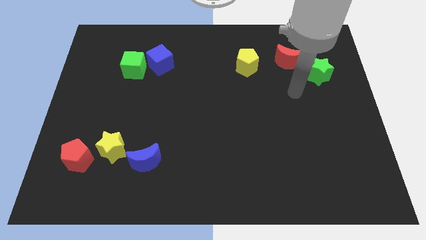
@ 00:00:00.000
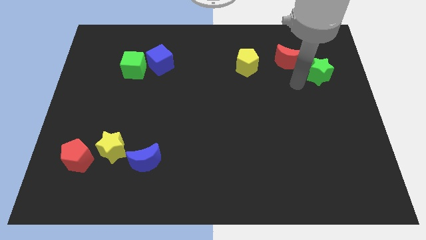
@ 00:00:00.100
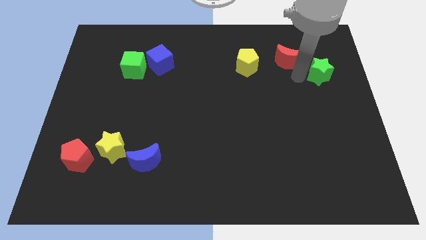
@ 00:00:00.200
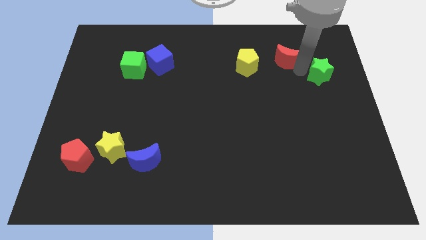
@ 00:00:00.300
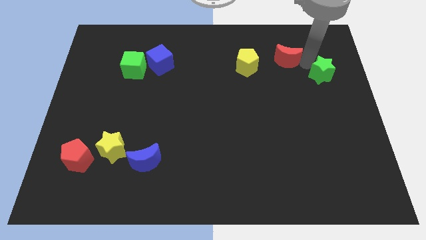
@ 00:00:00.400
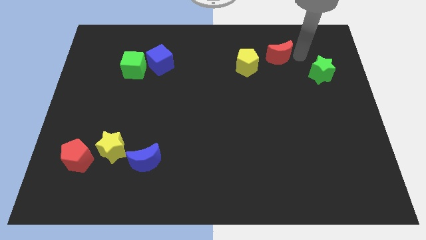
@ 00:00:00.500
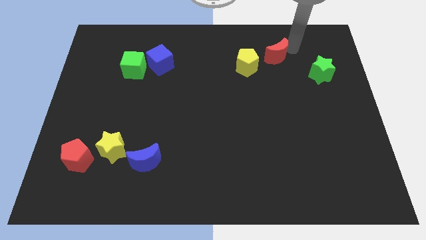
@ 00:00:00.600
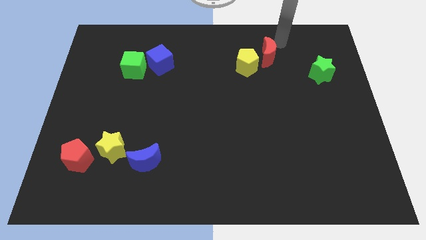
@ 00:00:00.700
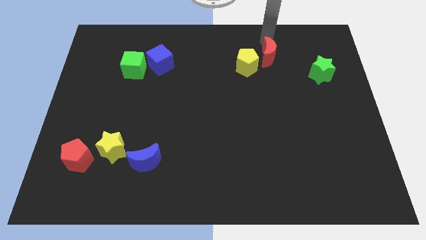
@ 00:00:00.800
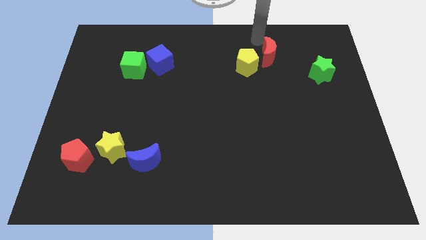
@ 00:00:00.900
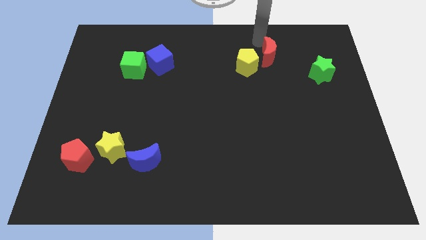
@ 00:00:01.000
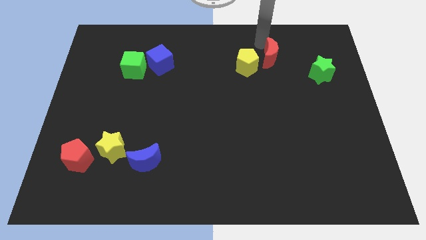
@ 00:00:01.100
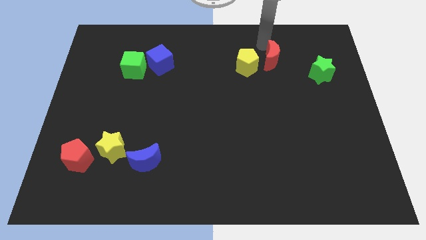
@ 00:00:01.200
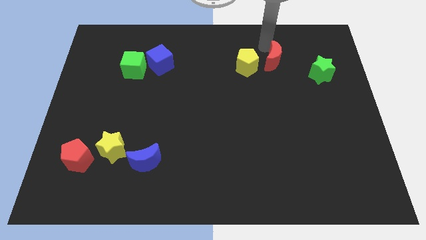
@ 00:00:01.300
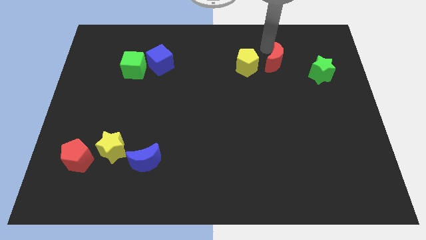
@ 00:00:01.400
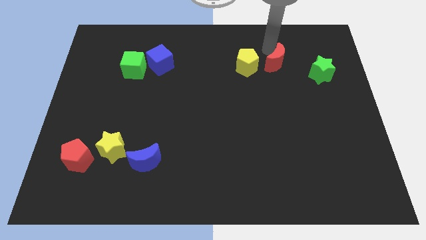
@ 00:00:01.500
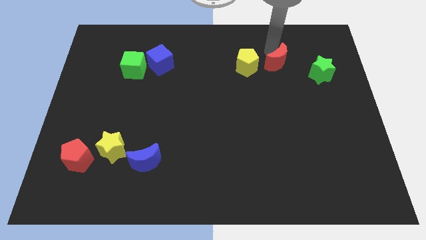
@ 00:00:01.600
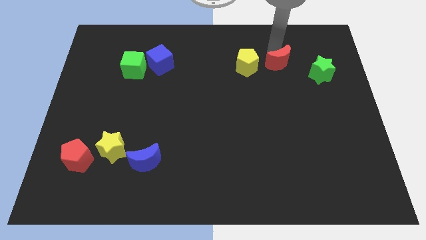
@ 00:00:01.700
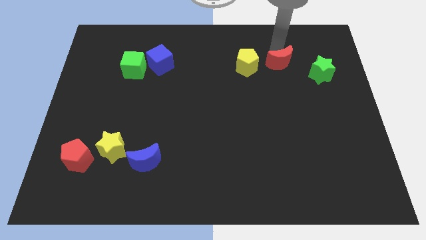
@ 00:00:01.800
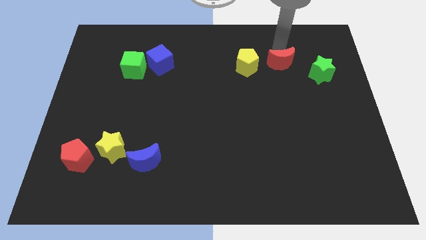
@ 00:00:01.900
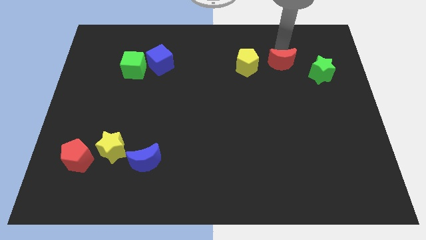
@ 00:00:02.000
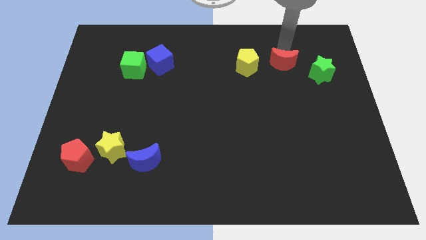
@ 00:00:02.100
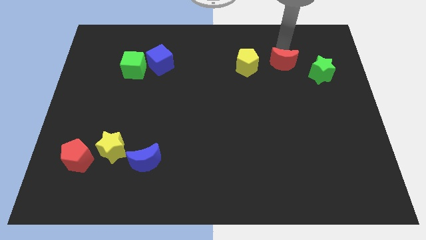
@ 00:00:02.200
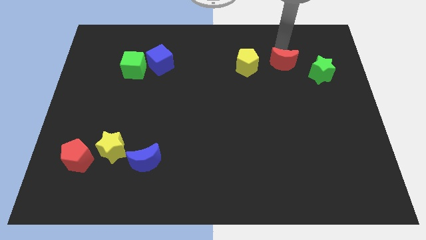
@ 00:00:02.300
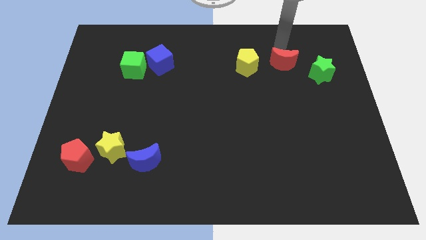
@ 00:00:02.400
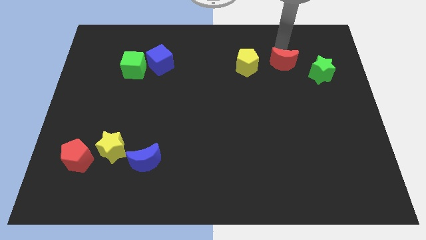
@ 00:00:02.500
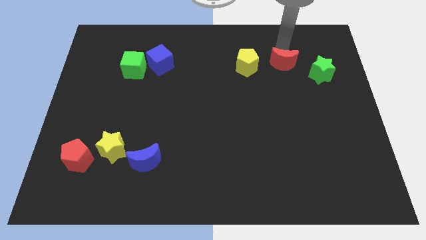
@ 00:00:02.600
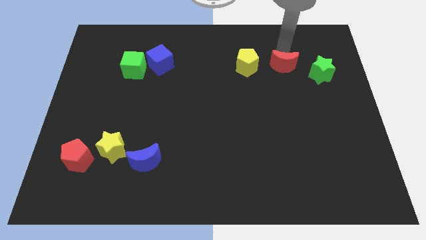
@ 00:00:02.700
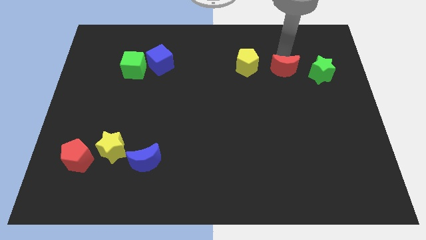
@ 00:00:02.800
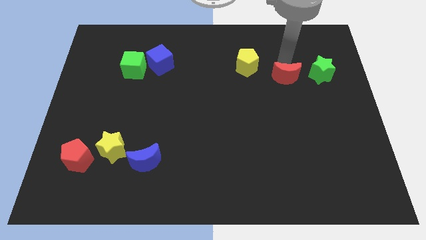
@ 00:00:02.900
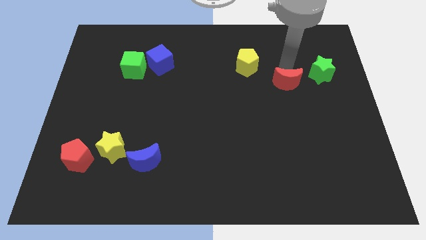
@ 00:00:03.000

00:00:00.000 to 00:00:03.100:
slightly slide the red moon down

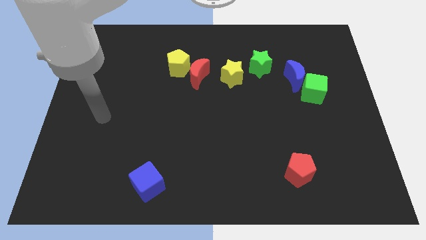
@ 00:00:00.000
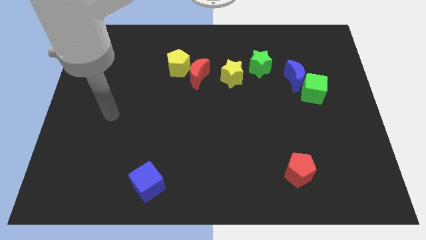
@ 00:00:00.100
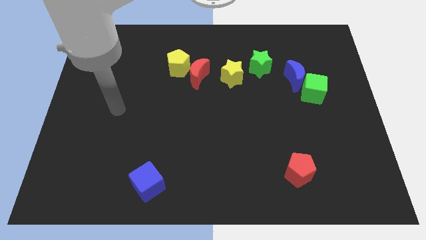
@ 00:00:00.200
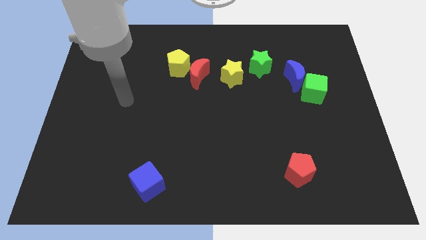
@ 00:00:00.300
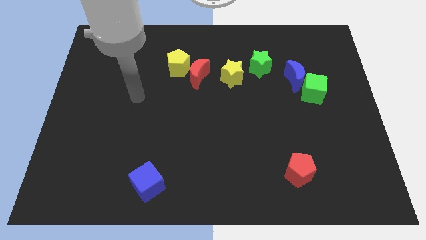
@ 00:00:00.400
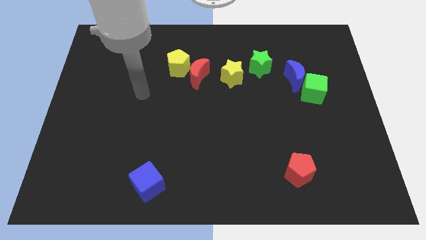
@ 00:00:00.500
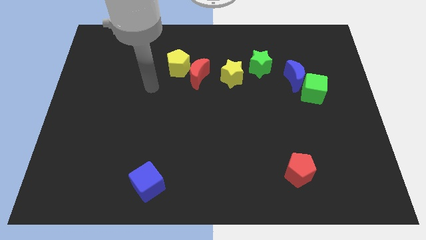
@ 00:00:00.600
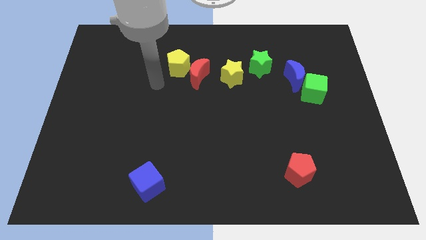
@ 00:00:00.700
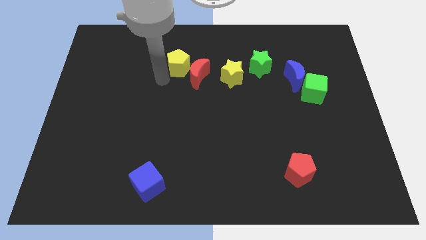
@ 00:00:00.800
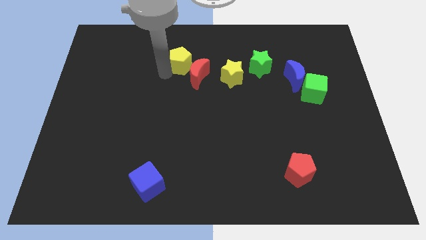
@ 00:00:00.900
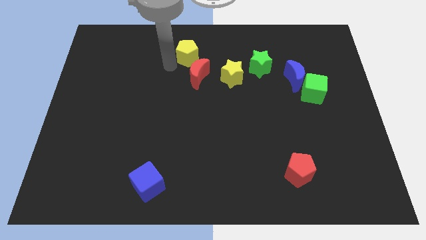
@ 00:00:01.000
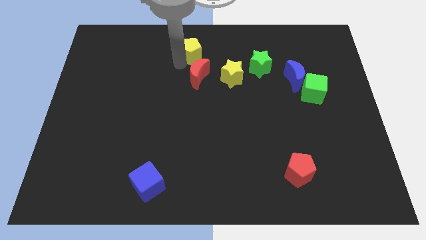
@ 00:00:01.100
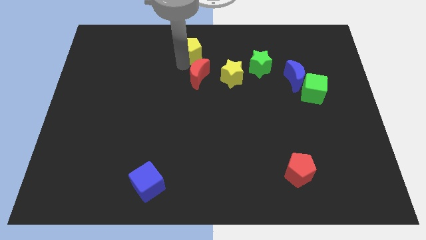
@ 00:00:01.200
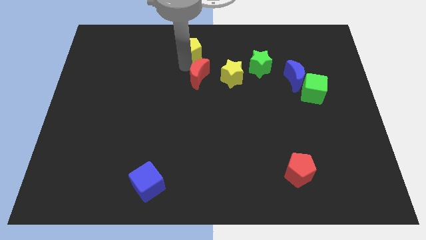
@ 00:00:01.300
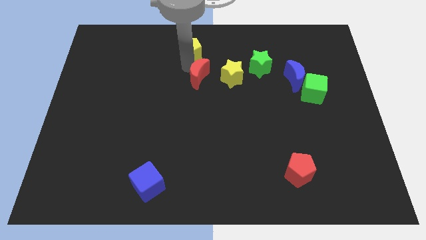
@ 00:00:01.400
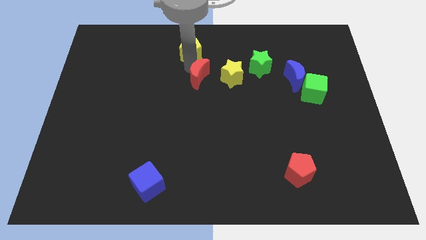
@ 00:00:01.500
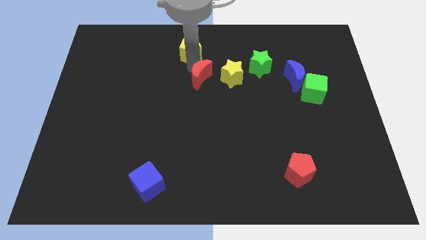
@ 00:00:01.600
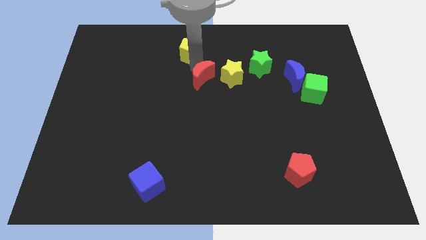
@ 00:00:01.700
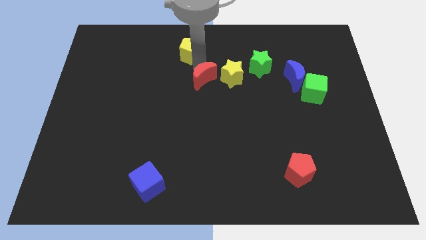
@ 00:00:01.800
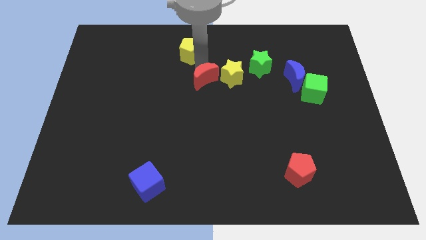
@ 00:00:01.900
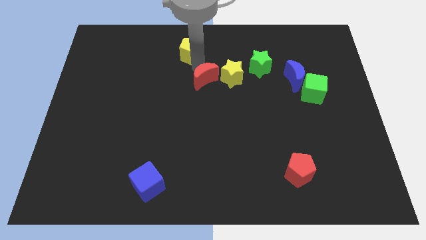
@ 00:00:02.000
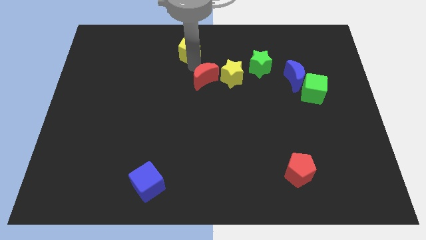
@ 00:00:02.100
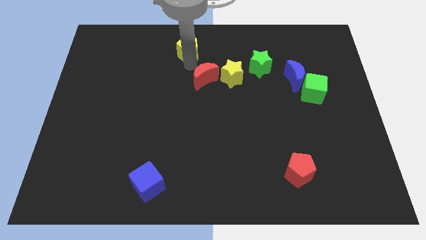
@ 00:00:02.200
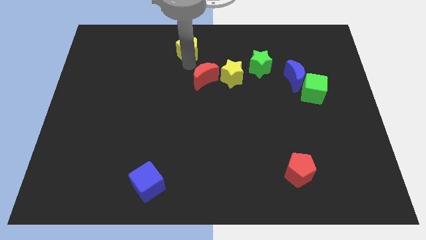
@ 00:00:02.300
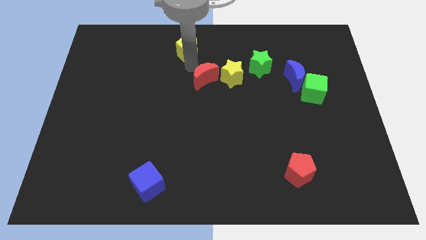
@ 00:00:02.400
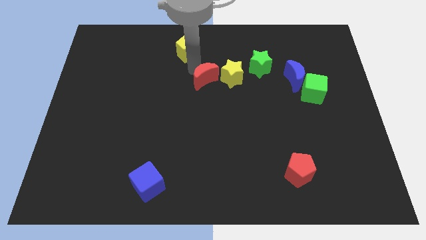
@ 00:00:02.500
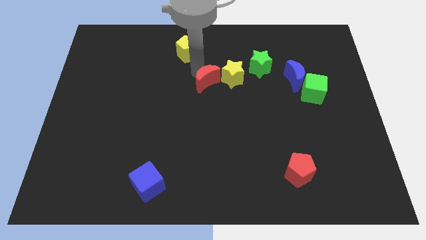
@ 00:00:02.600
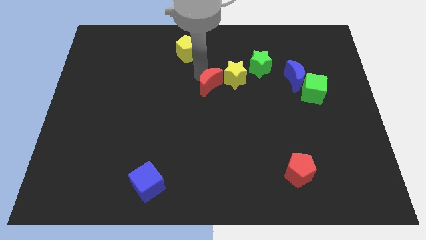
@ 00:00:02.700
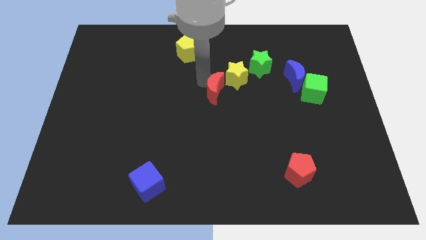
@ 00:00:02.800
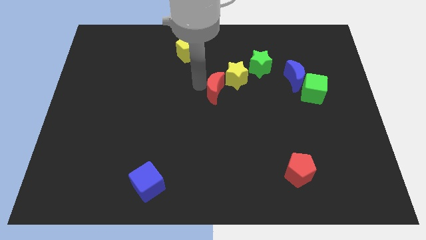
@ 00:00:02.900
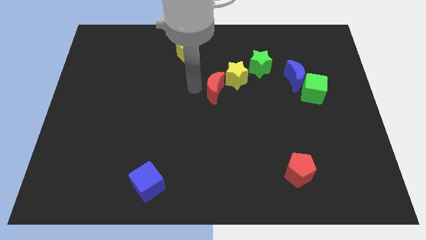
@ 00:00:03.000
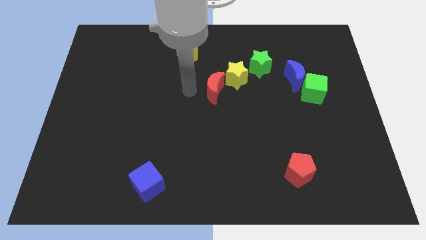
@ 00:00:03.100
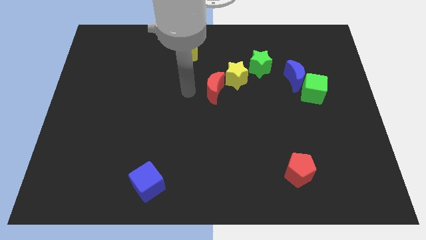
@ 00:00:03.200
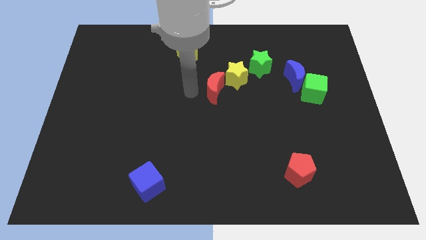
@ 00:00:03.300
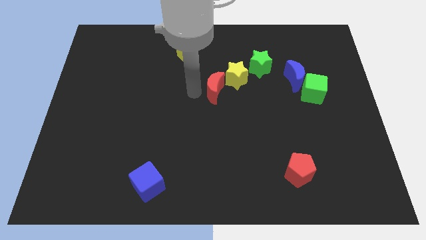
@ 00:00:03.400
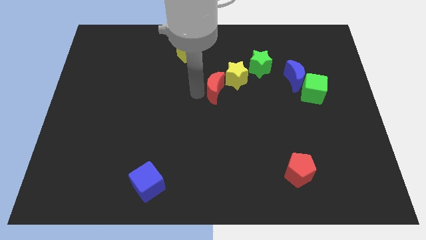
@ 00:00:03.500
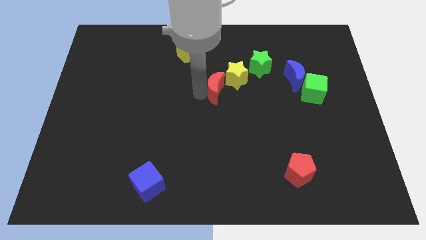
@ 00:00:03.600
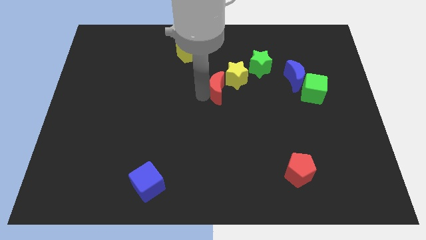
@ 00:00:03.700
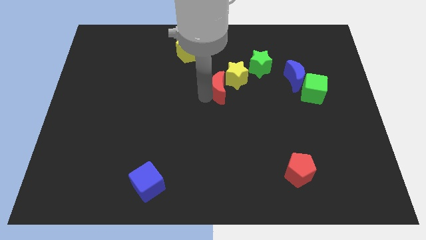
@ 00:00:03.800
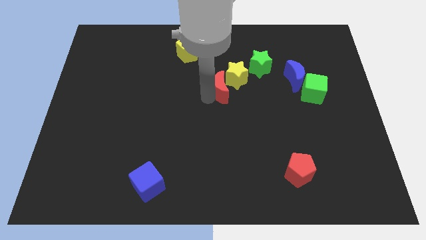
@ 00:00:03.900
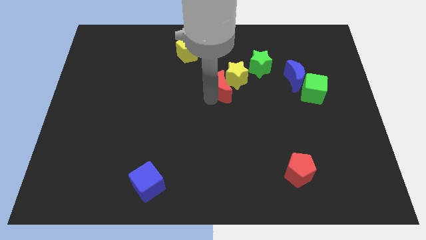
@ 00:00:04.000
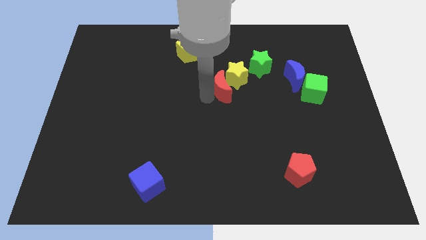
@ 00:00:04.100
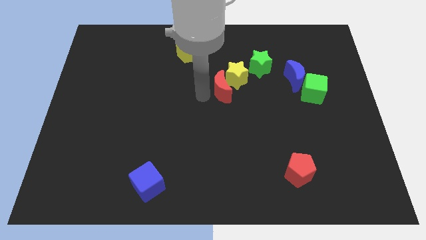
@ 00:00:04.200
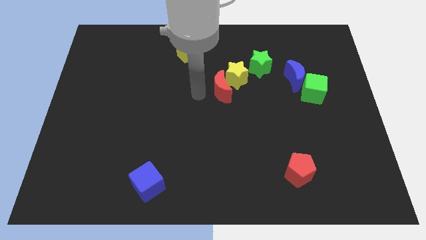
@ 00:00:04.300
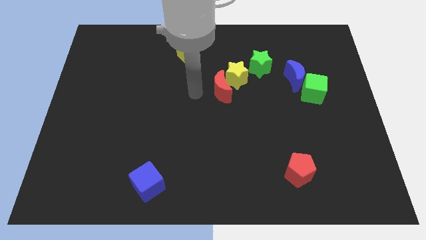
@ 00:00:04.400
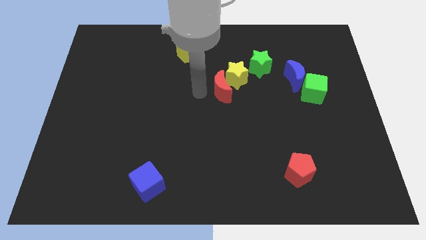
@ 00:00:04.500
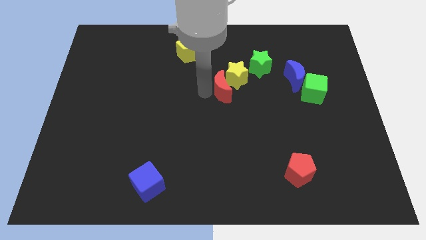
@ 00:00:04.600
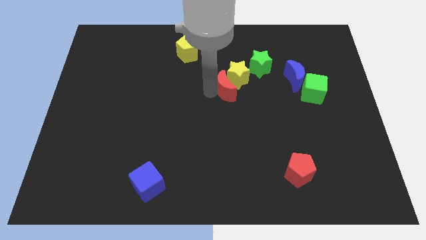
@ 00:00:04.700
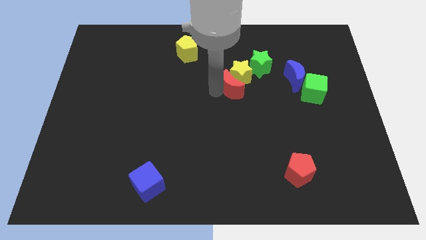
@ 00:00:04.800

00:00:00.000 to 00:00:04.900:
push the red moon a little bit to the right
